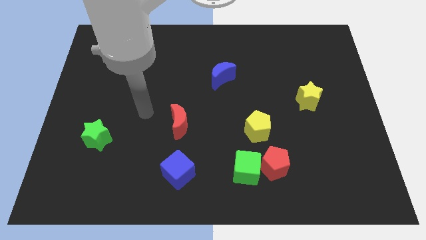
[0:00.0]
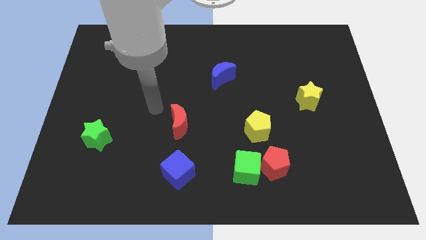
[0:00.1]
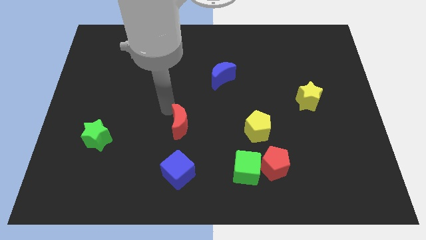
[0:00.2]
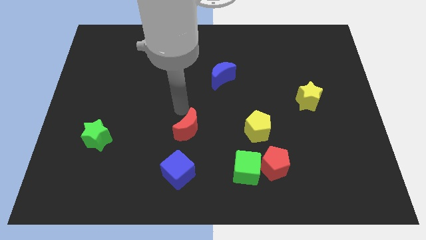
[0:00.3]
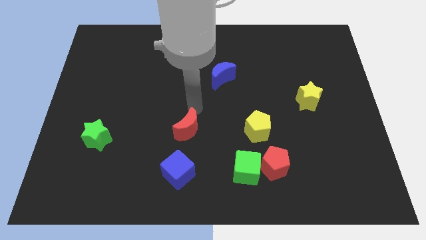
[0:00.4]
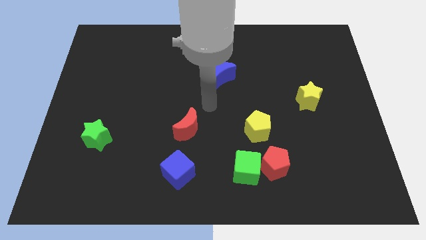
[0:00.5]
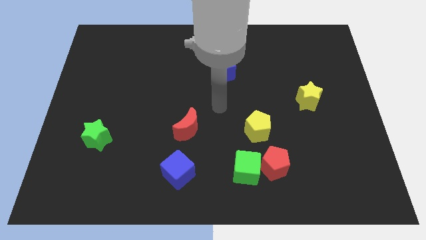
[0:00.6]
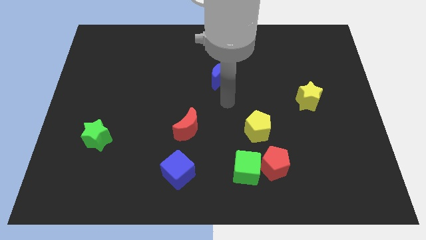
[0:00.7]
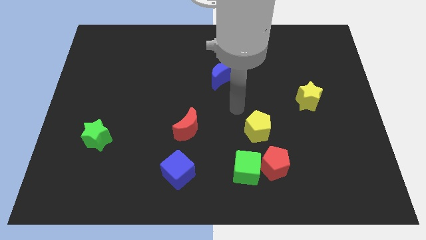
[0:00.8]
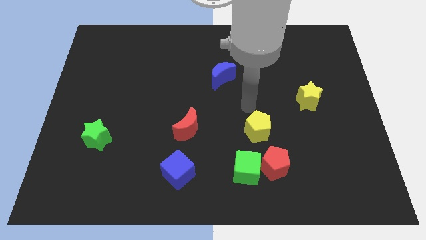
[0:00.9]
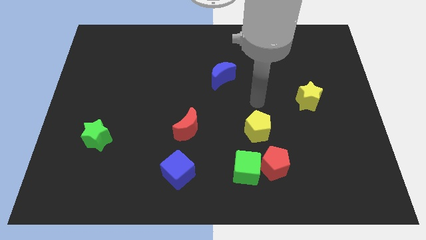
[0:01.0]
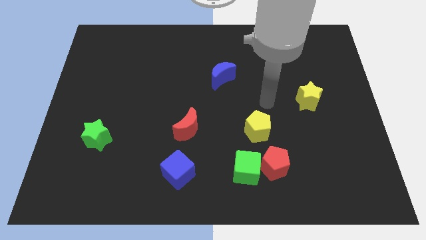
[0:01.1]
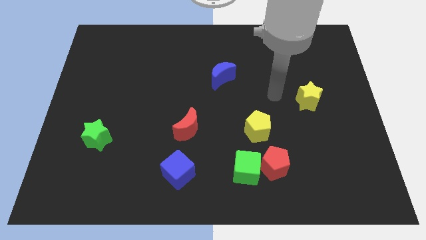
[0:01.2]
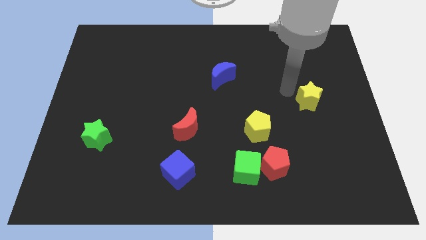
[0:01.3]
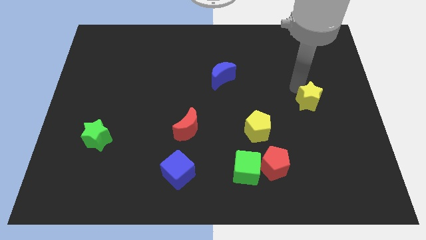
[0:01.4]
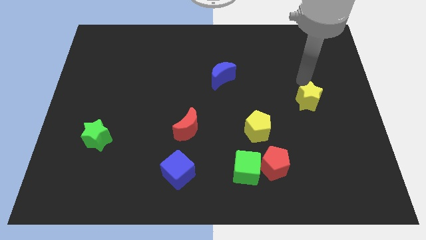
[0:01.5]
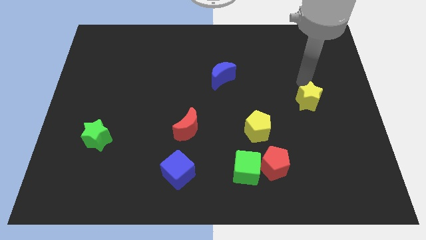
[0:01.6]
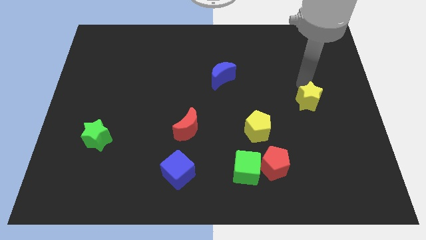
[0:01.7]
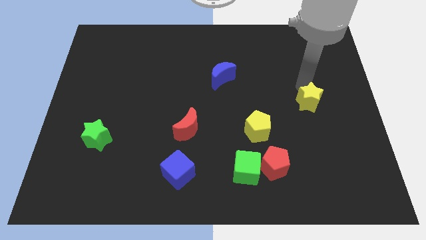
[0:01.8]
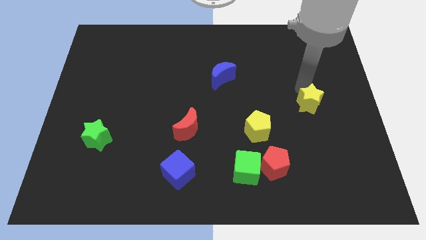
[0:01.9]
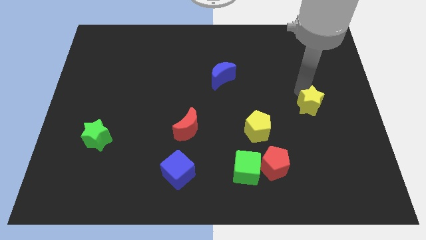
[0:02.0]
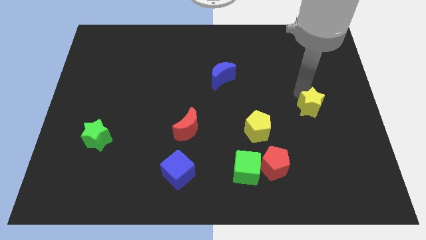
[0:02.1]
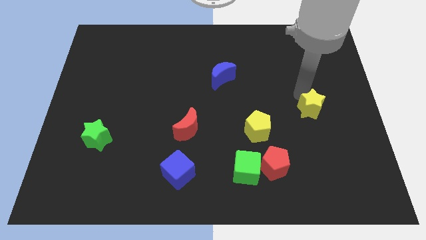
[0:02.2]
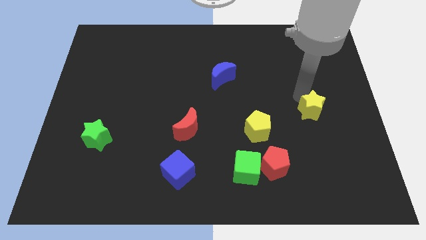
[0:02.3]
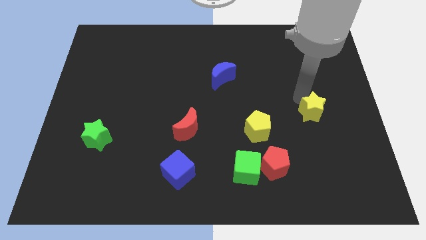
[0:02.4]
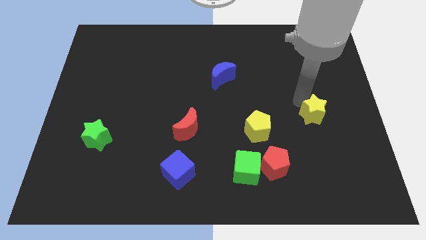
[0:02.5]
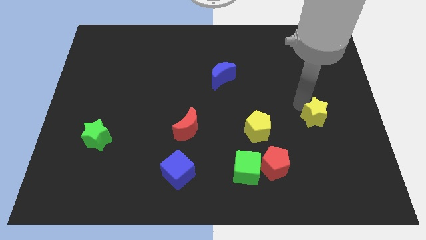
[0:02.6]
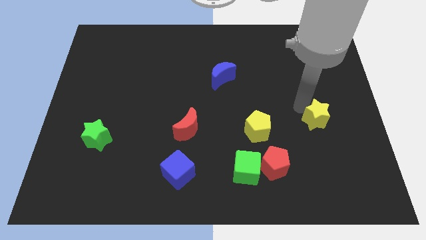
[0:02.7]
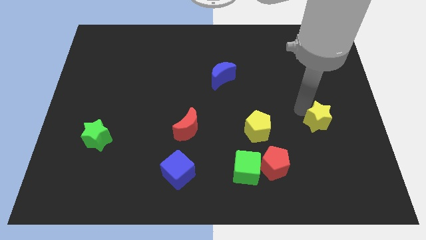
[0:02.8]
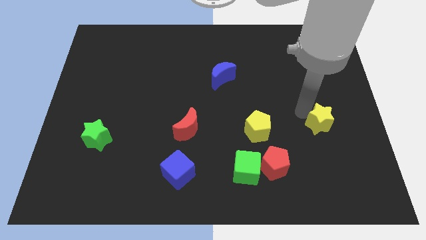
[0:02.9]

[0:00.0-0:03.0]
slightly move the yellow star down

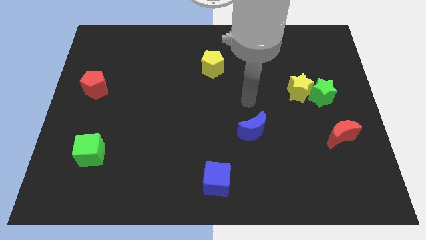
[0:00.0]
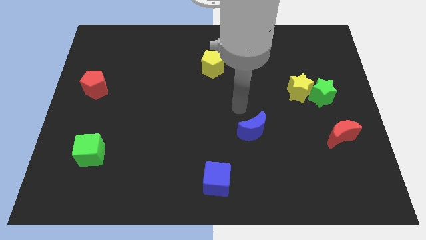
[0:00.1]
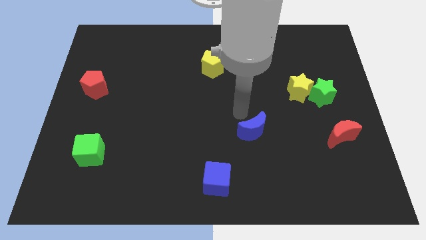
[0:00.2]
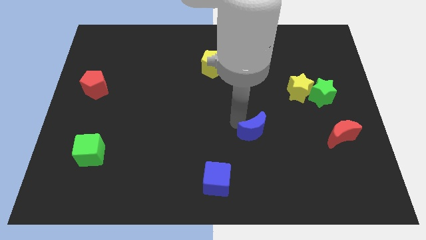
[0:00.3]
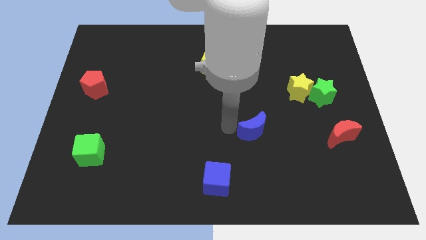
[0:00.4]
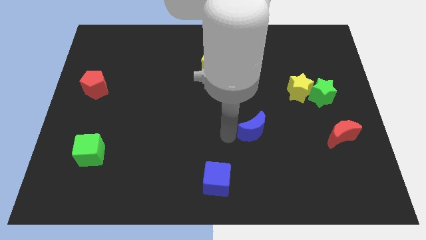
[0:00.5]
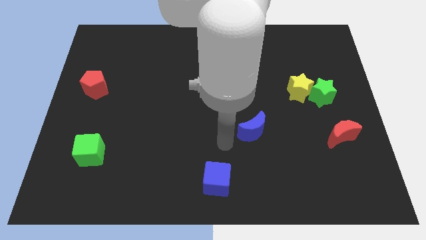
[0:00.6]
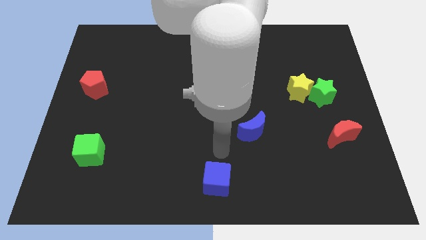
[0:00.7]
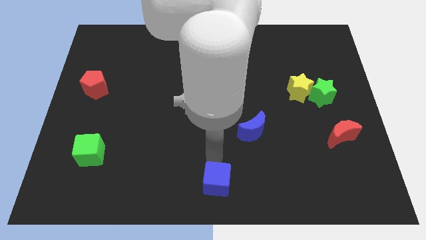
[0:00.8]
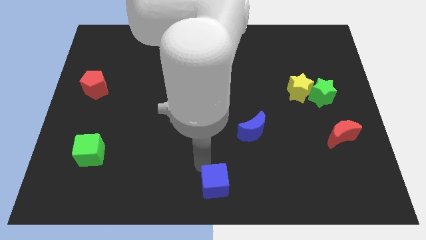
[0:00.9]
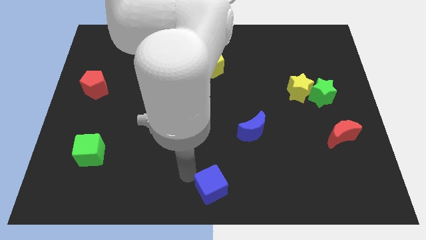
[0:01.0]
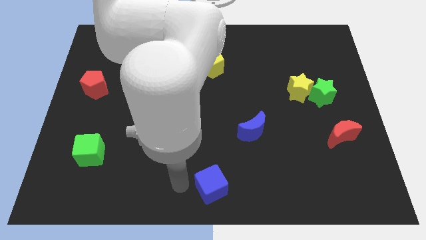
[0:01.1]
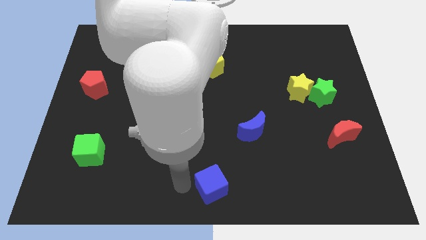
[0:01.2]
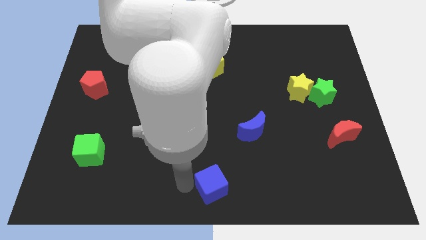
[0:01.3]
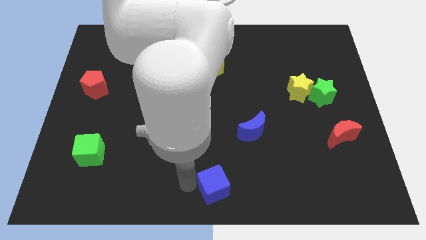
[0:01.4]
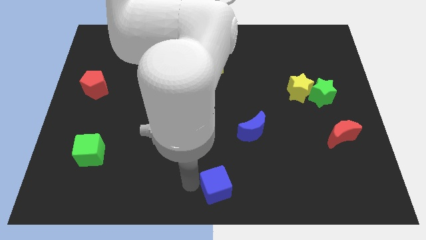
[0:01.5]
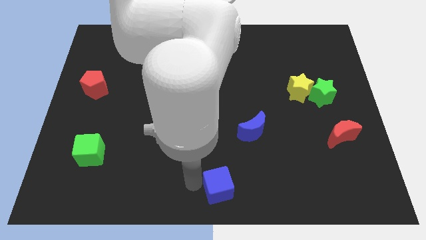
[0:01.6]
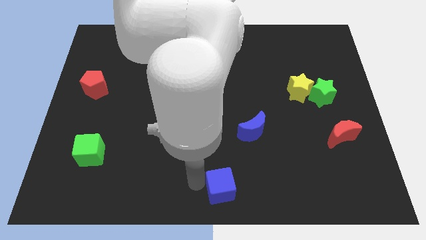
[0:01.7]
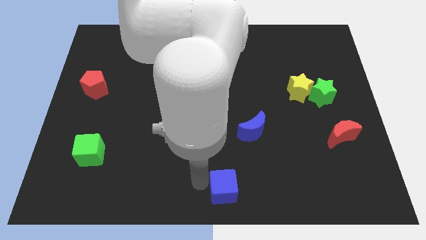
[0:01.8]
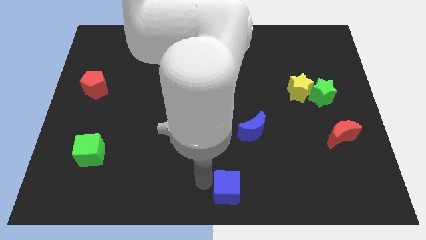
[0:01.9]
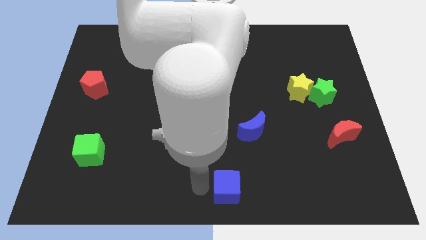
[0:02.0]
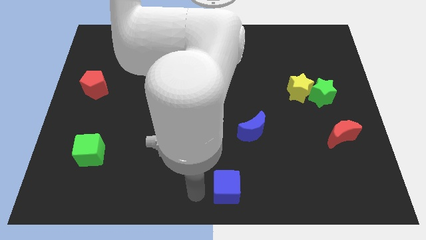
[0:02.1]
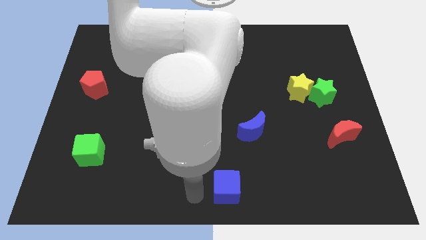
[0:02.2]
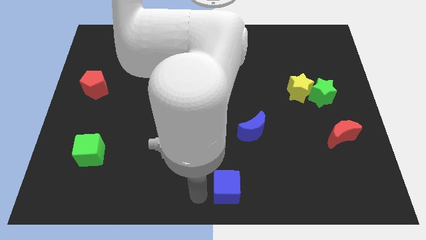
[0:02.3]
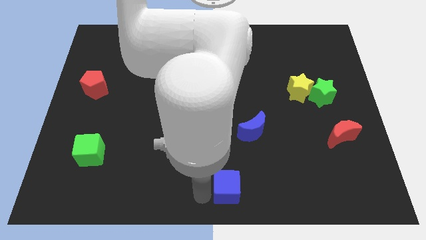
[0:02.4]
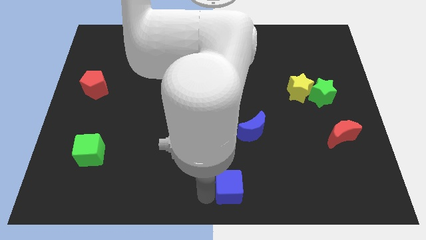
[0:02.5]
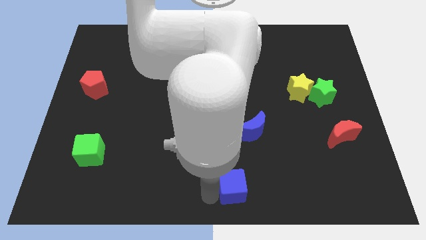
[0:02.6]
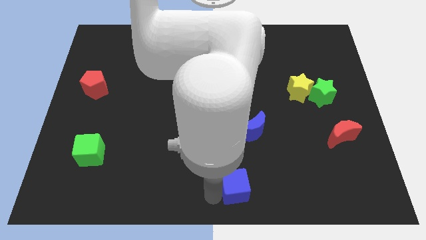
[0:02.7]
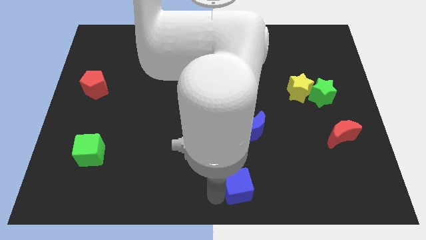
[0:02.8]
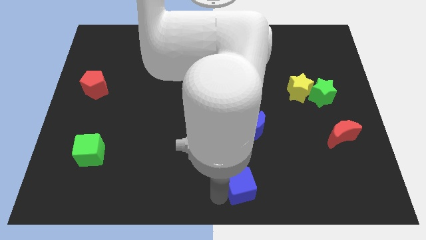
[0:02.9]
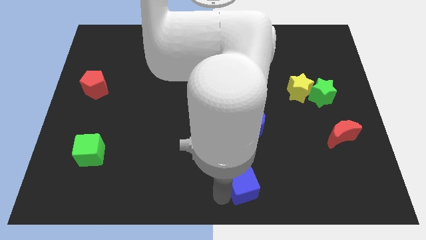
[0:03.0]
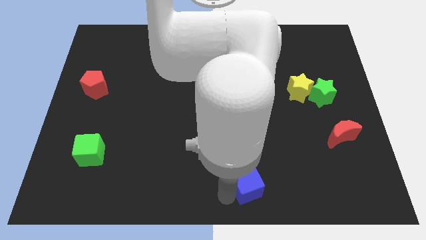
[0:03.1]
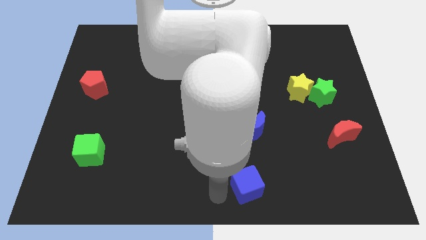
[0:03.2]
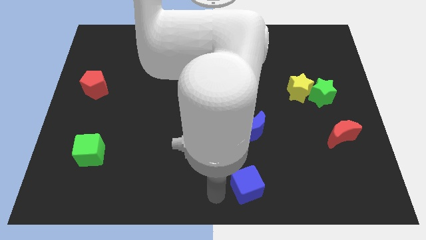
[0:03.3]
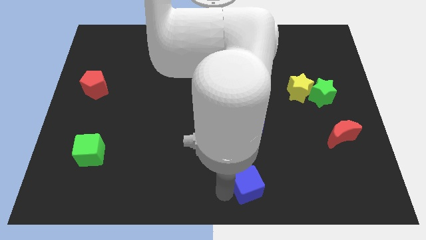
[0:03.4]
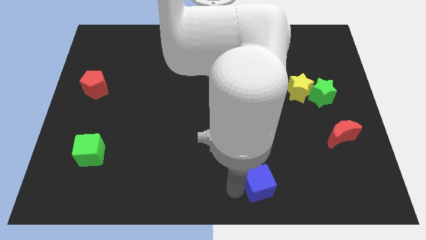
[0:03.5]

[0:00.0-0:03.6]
push the blue cube to the right a little bit

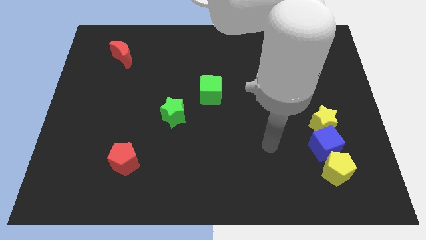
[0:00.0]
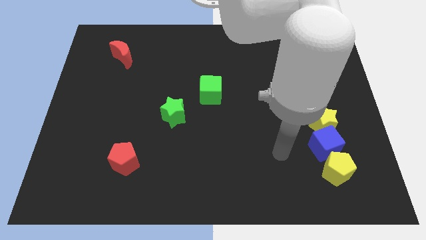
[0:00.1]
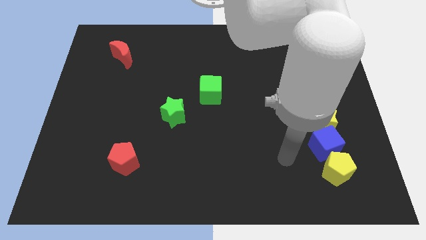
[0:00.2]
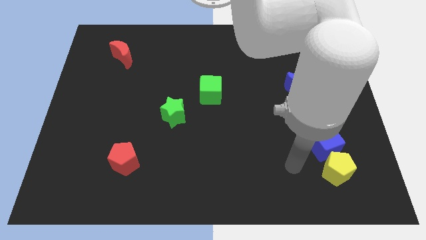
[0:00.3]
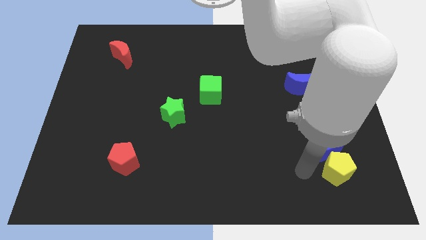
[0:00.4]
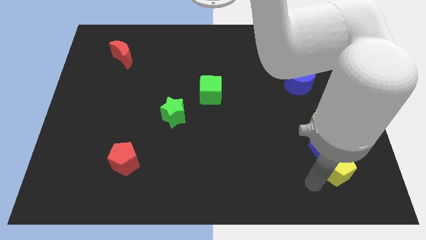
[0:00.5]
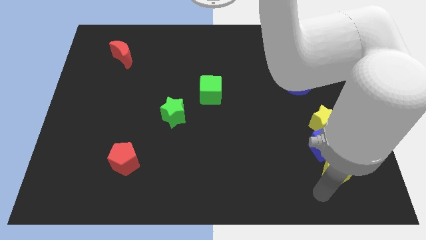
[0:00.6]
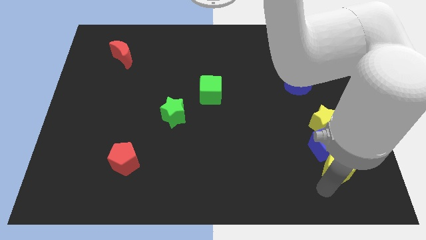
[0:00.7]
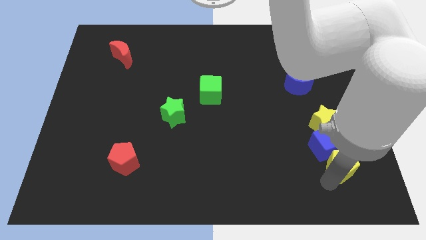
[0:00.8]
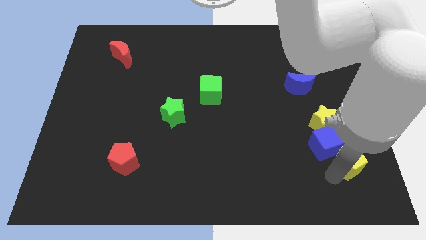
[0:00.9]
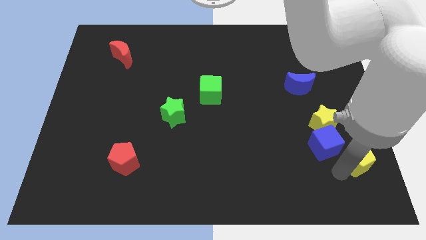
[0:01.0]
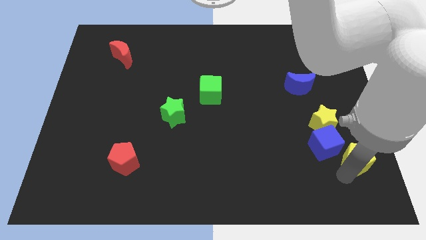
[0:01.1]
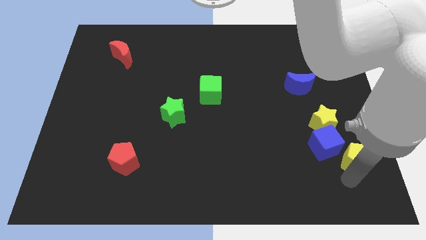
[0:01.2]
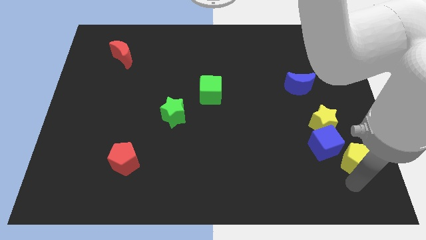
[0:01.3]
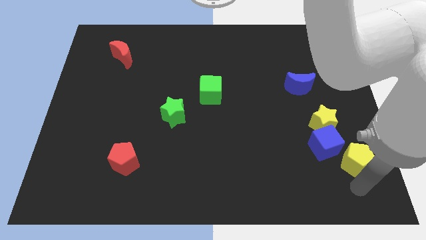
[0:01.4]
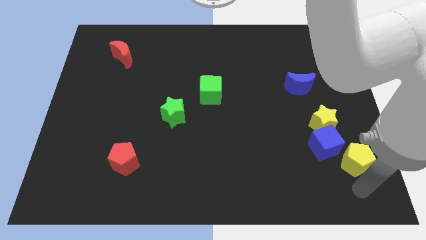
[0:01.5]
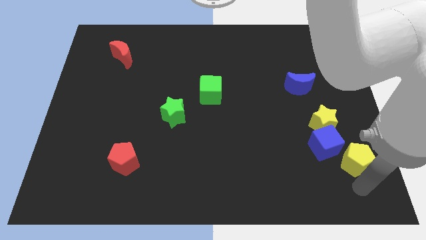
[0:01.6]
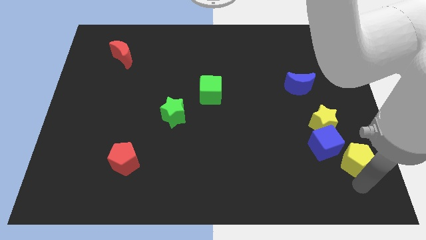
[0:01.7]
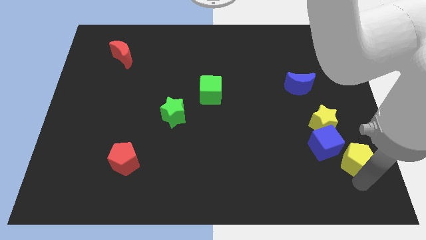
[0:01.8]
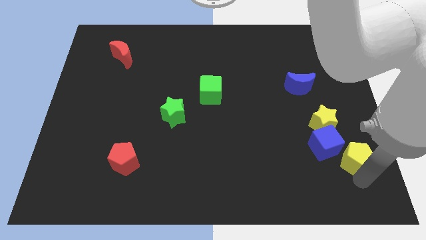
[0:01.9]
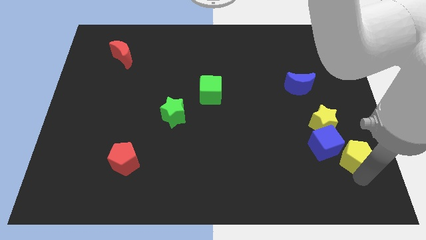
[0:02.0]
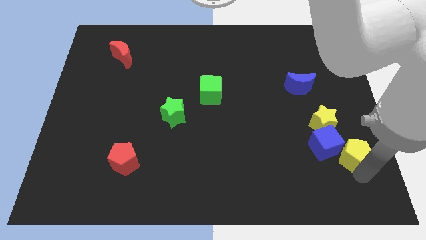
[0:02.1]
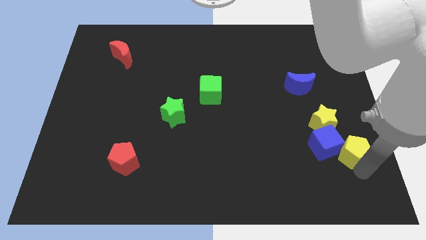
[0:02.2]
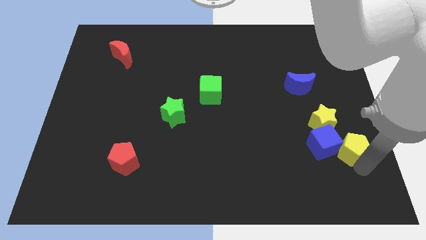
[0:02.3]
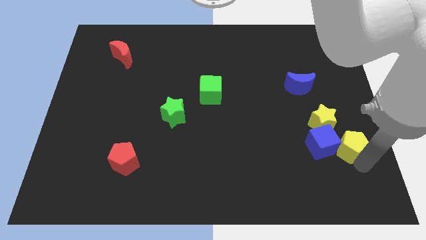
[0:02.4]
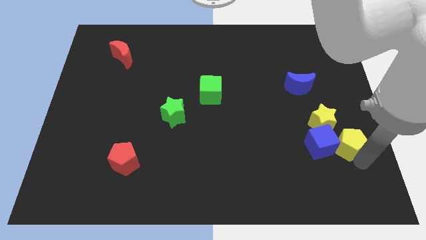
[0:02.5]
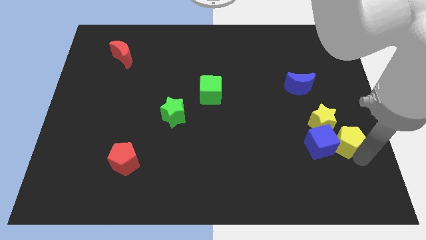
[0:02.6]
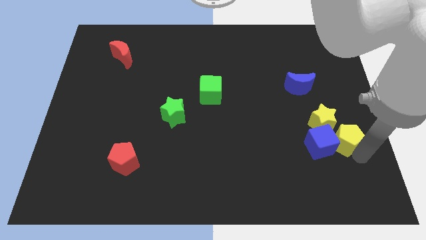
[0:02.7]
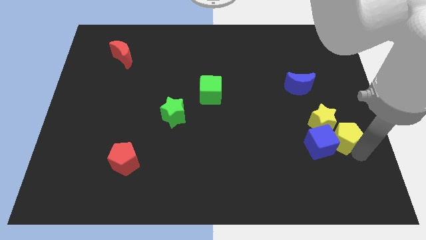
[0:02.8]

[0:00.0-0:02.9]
push the yellow pentagon somewhat up
